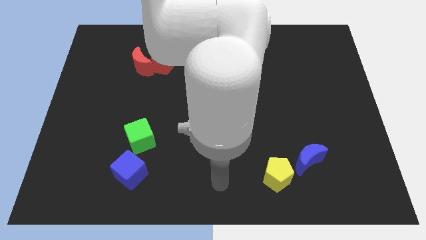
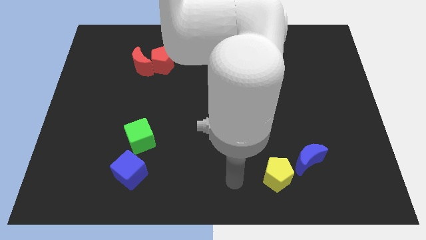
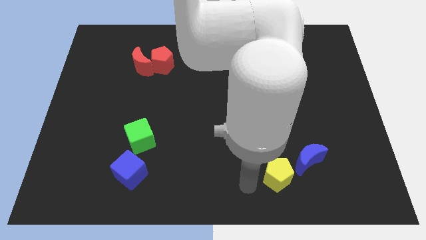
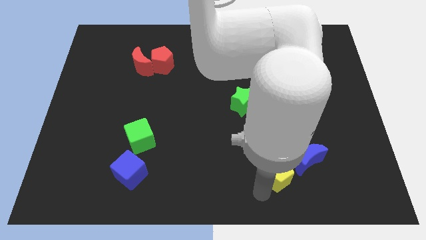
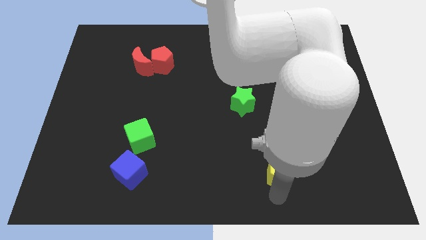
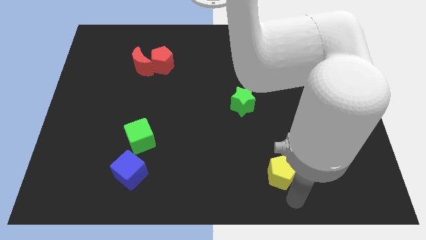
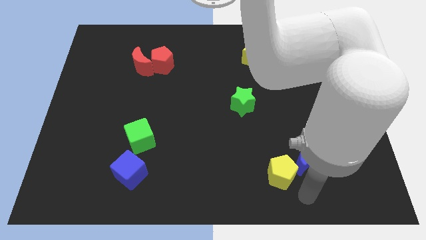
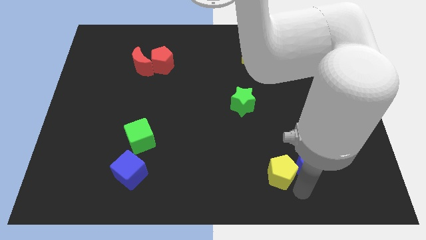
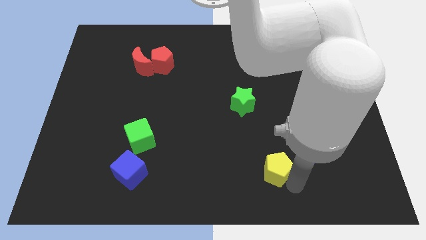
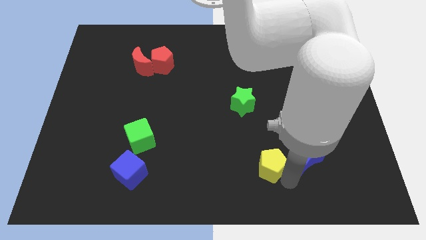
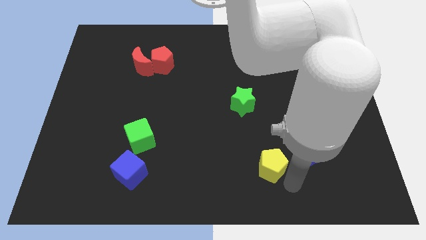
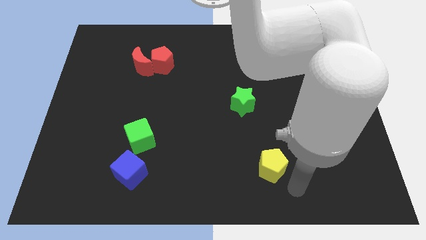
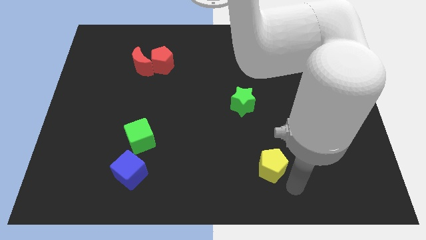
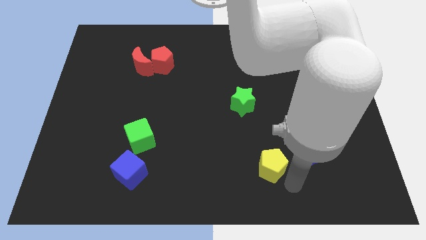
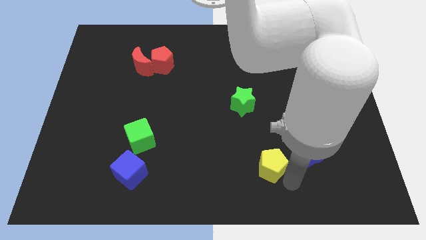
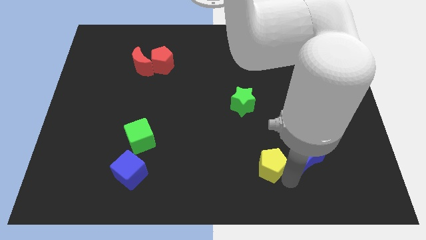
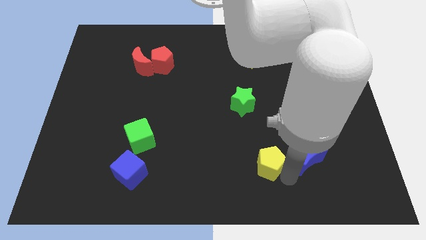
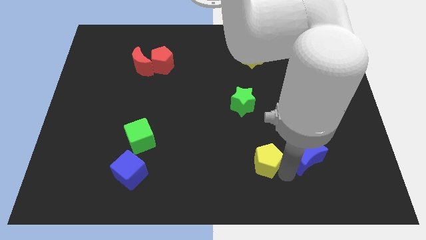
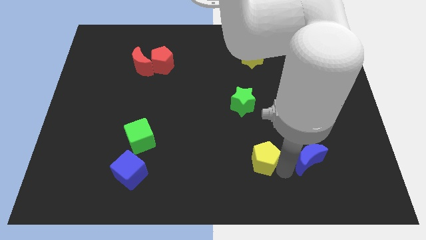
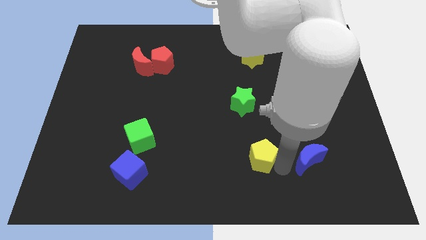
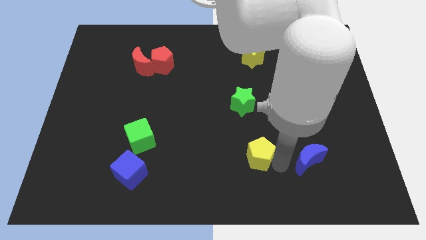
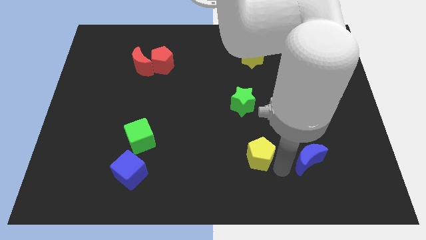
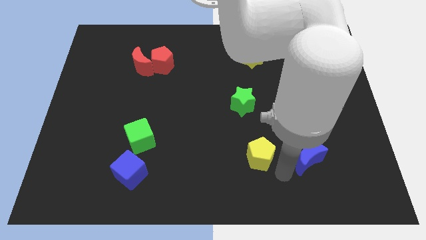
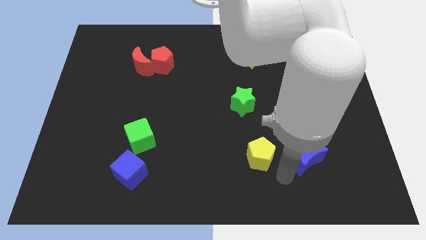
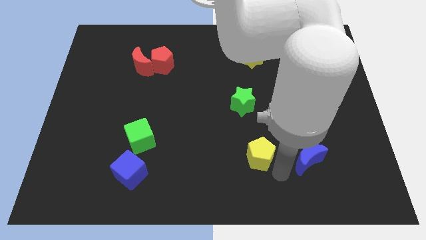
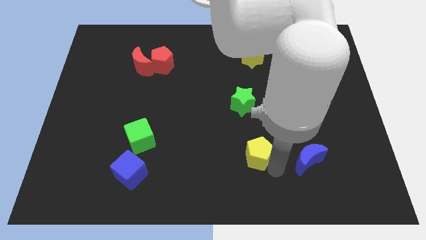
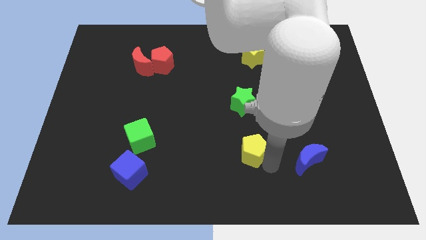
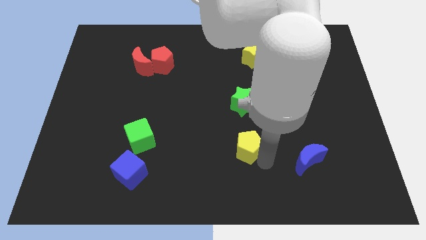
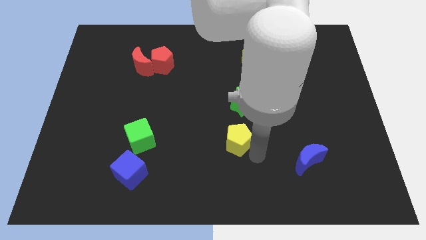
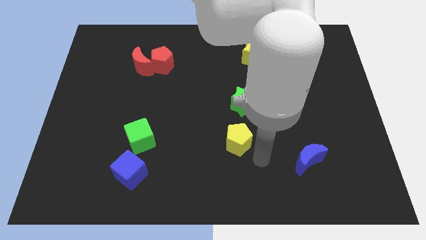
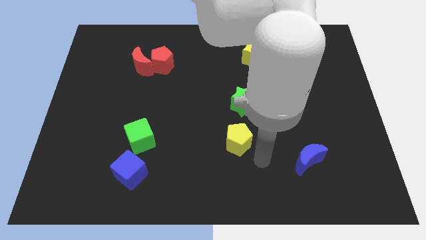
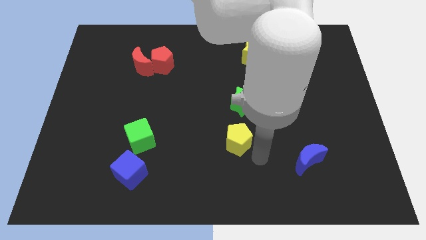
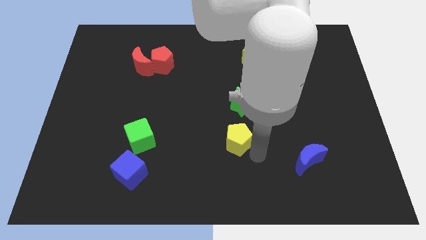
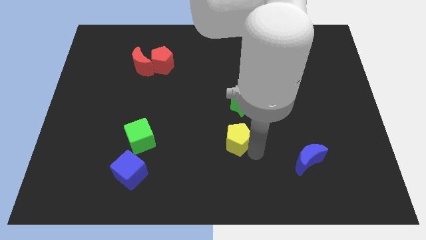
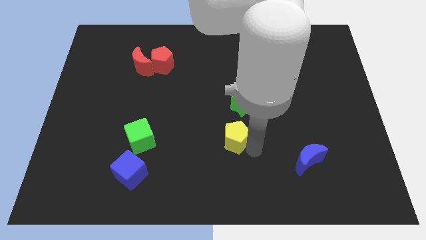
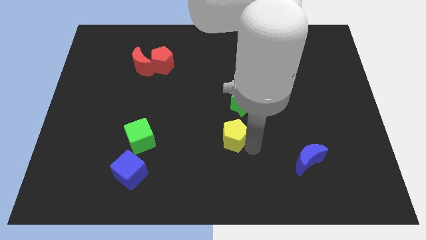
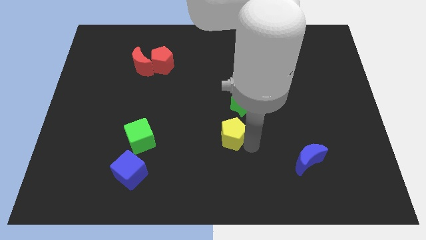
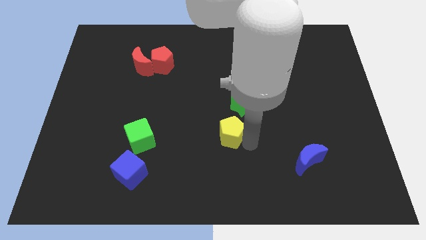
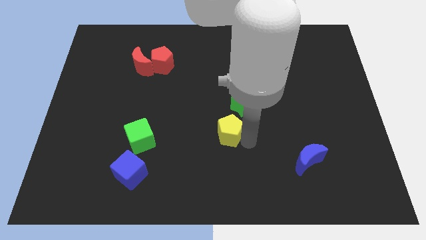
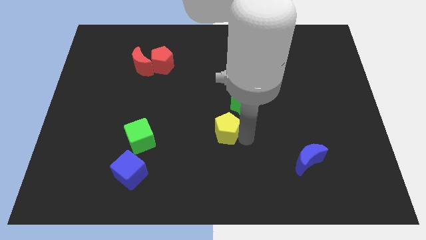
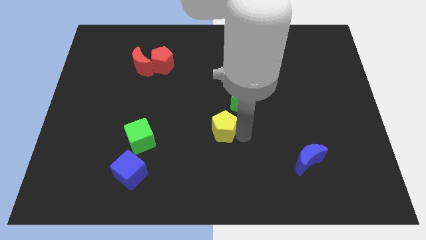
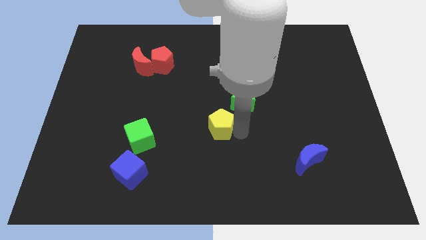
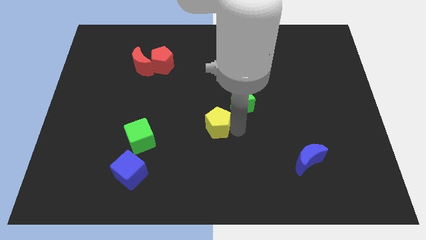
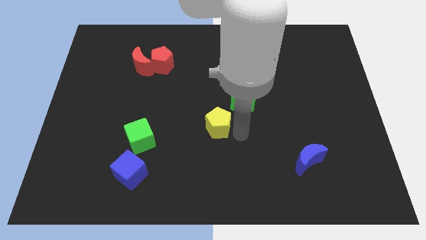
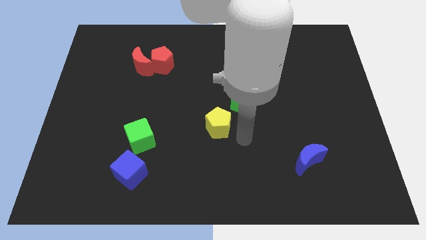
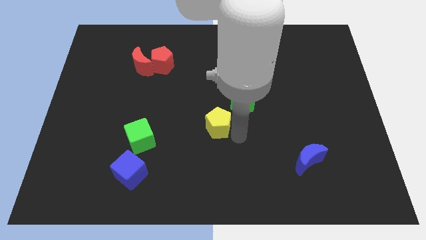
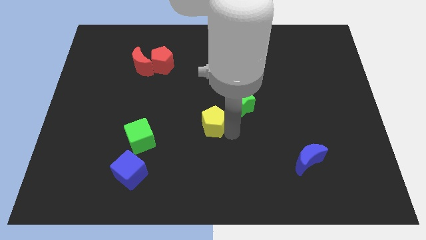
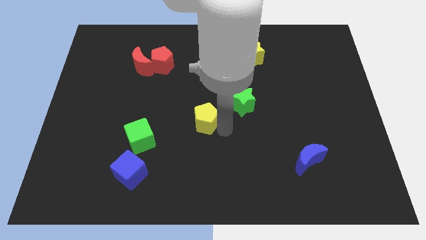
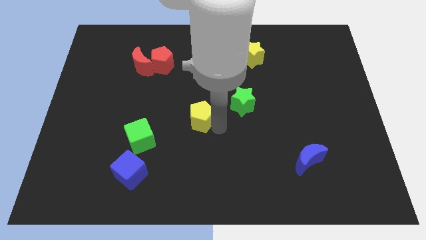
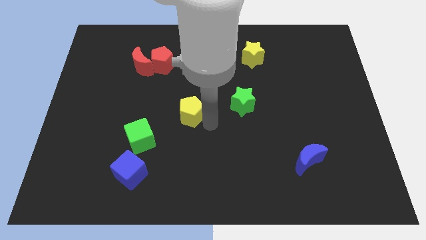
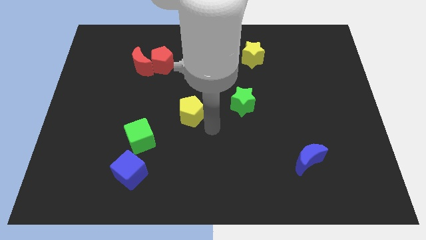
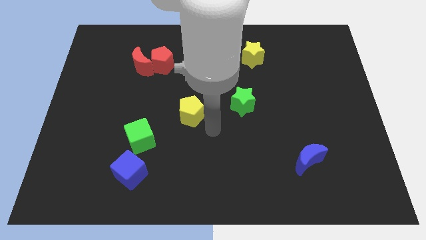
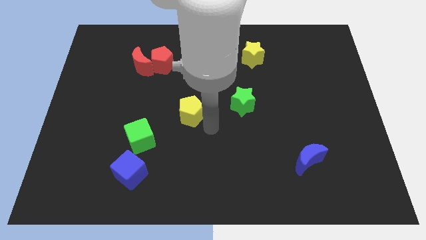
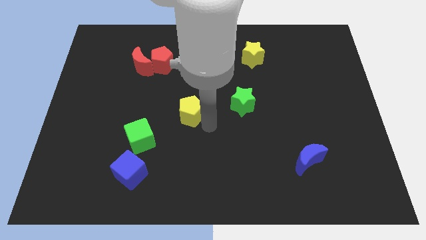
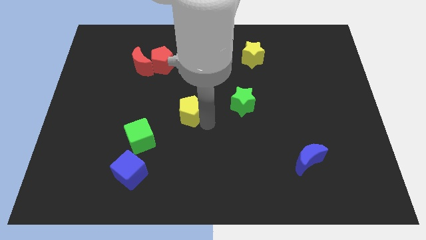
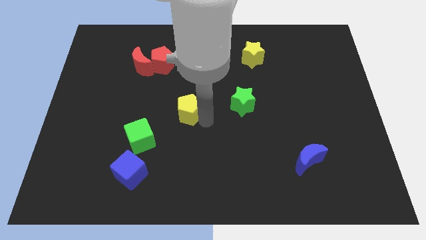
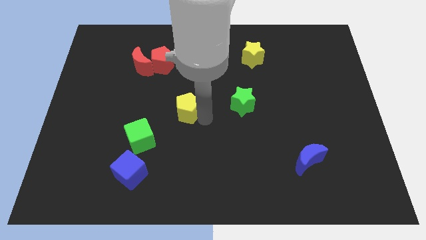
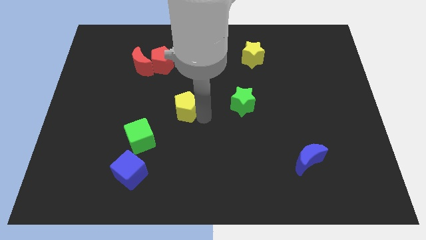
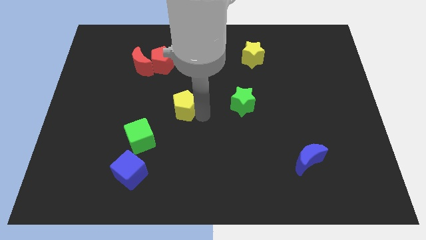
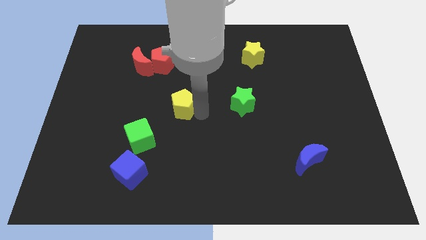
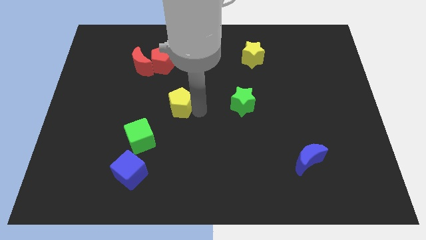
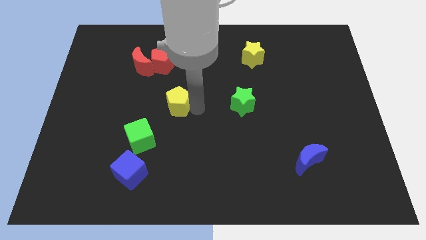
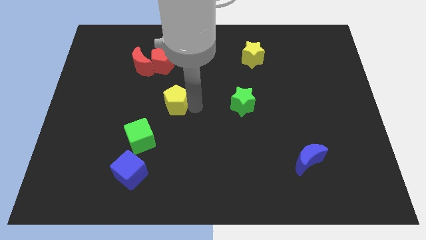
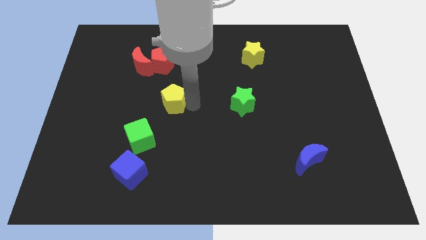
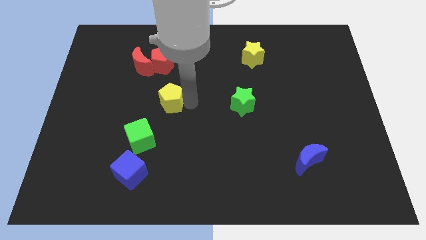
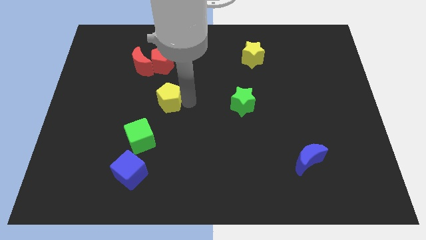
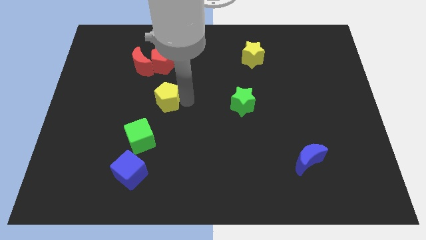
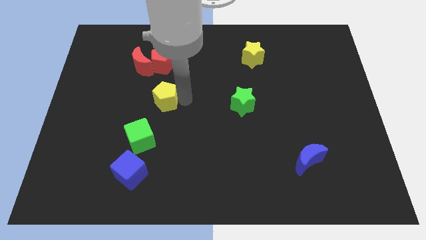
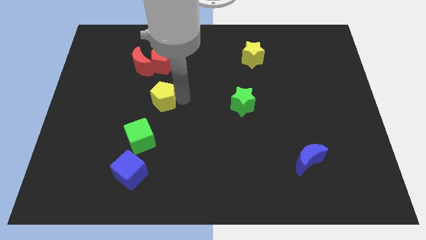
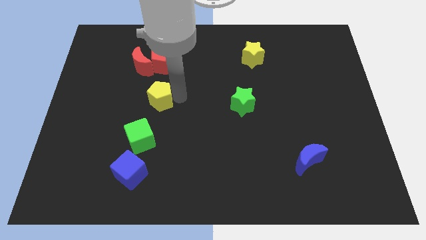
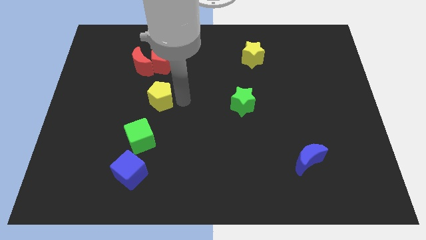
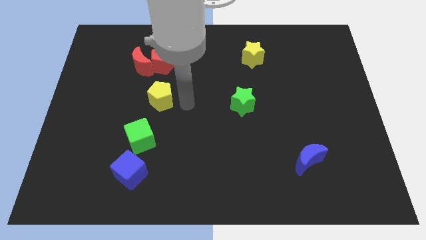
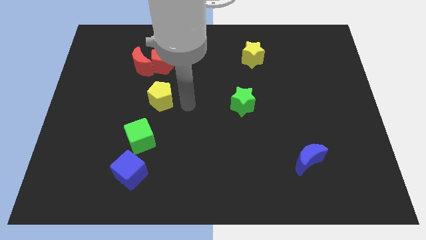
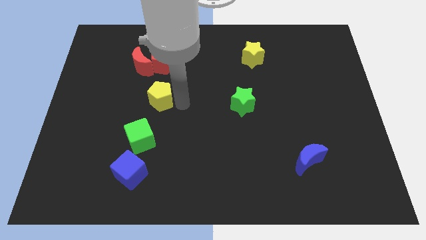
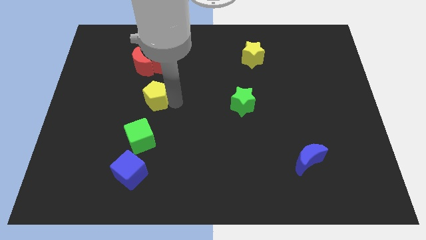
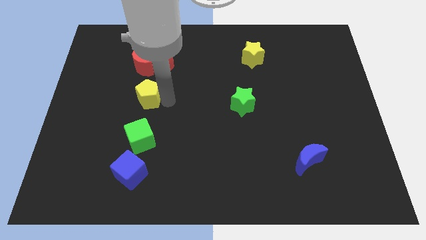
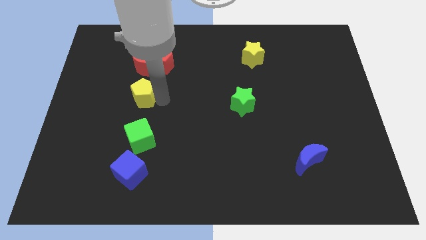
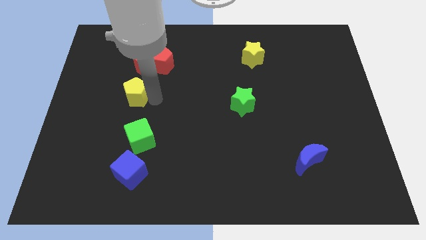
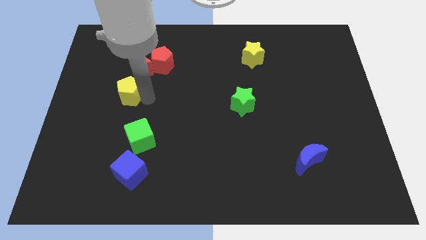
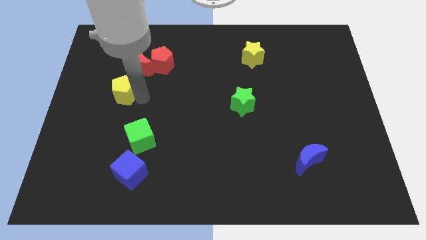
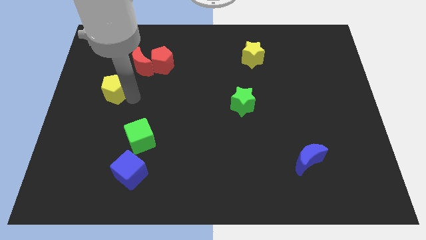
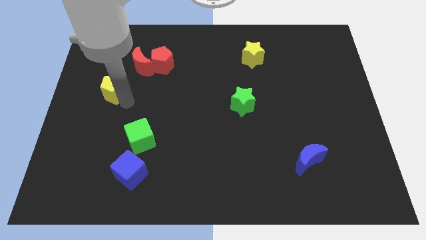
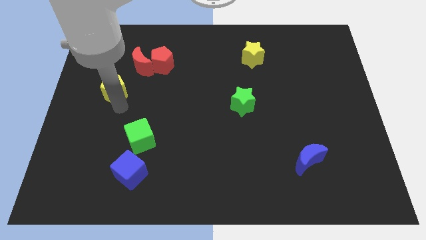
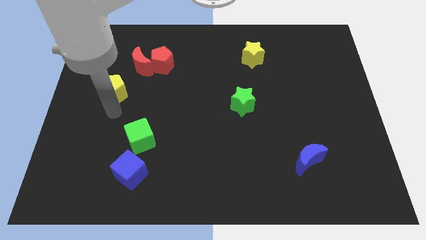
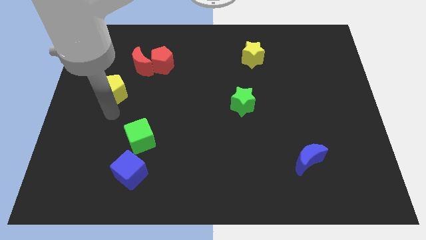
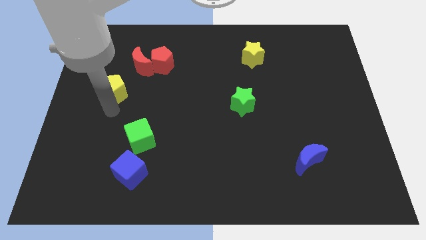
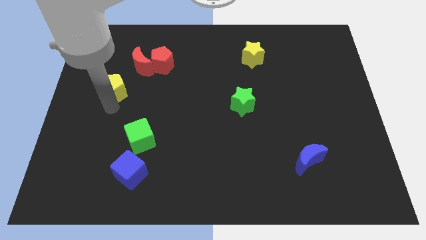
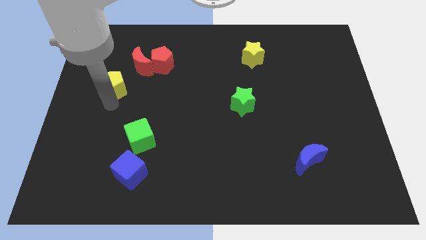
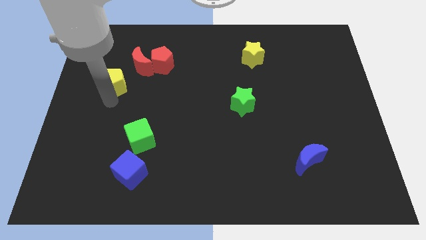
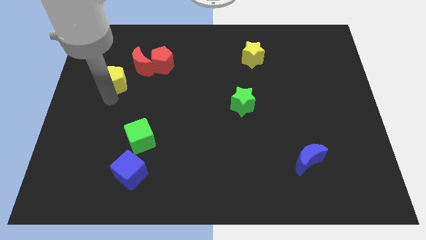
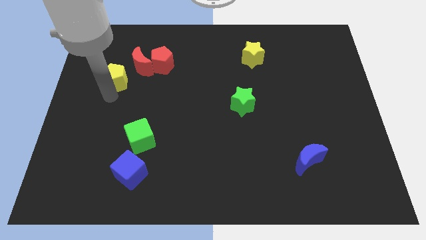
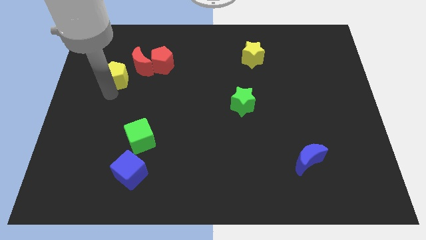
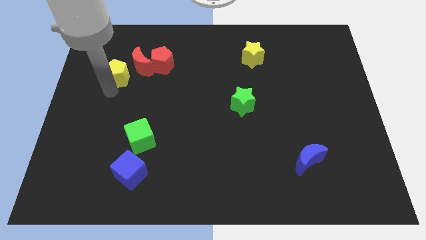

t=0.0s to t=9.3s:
put the yellow pentagon to the left side of the red pentagon
